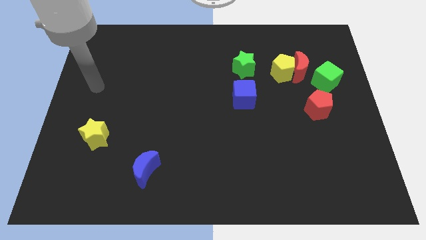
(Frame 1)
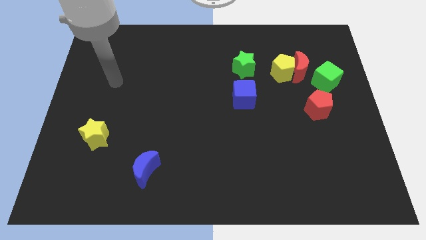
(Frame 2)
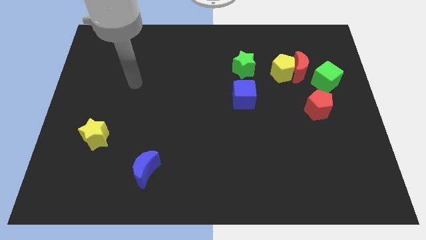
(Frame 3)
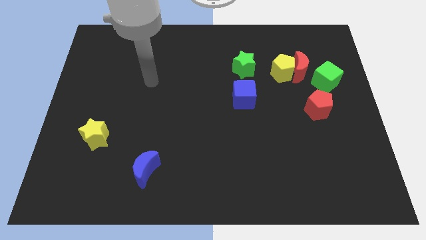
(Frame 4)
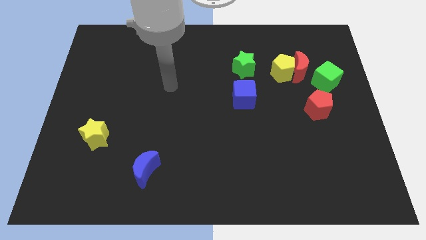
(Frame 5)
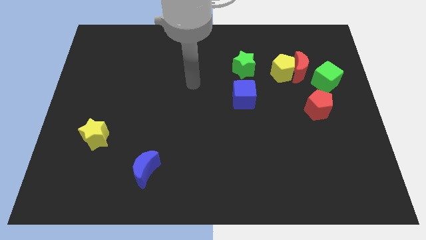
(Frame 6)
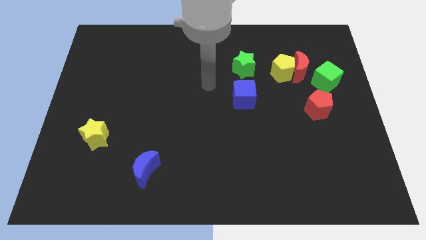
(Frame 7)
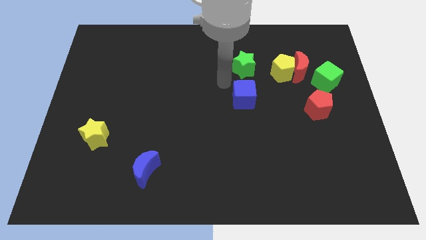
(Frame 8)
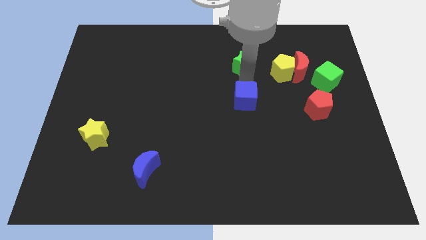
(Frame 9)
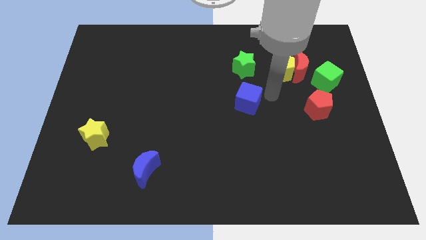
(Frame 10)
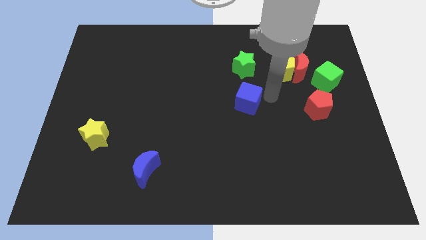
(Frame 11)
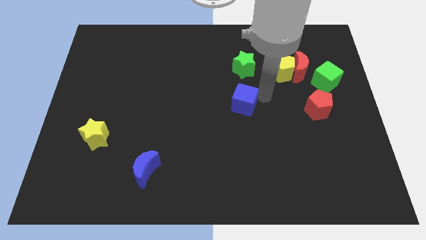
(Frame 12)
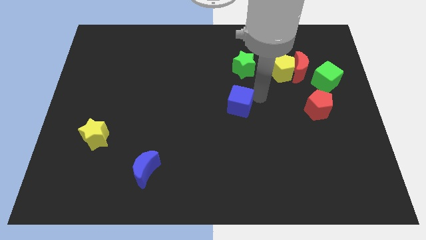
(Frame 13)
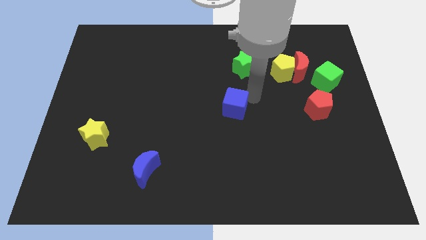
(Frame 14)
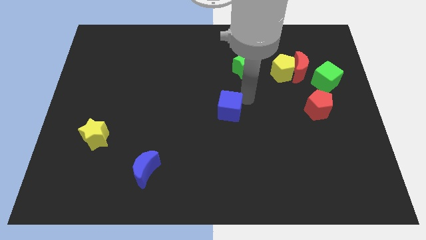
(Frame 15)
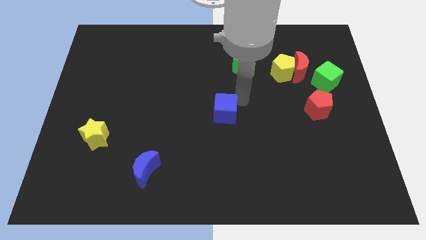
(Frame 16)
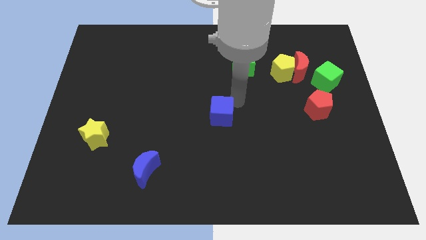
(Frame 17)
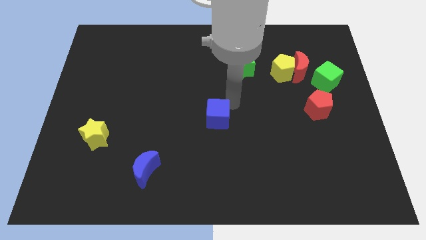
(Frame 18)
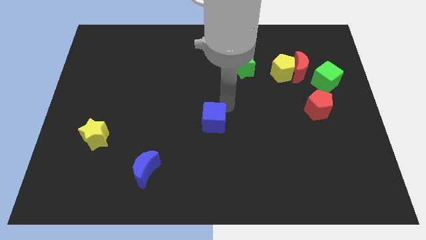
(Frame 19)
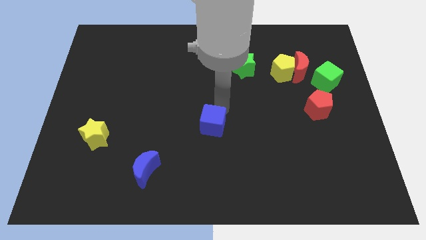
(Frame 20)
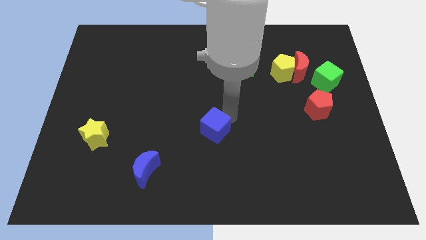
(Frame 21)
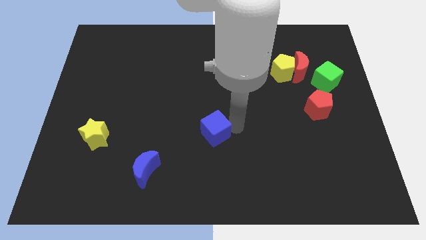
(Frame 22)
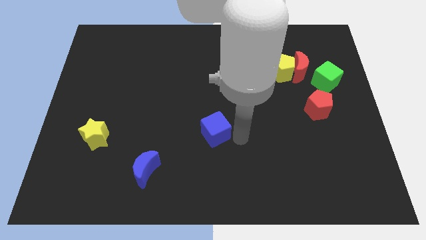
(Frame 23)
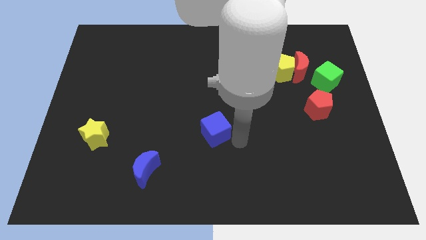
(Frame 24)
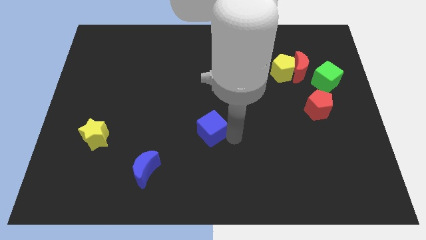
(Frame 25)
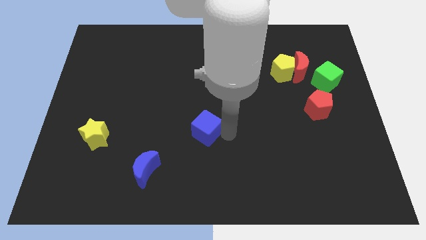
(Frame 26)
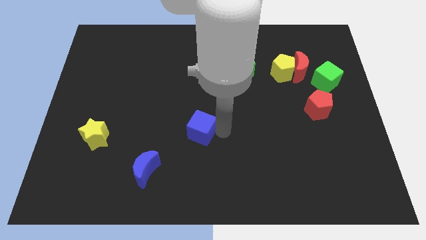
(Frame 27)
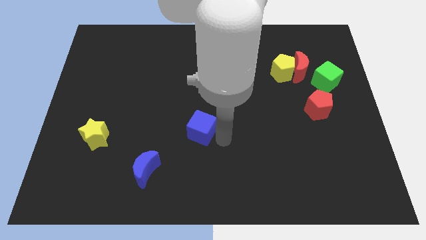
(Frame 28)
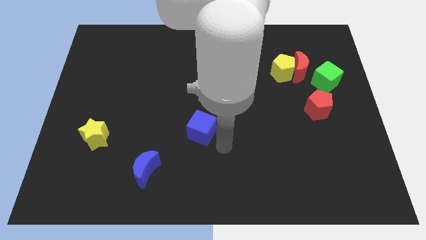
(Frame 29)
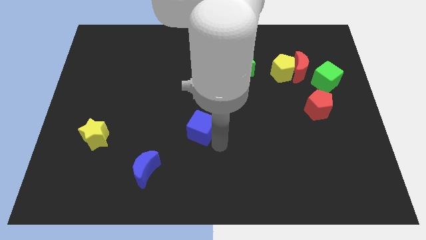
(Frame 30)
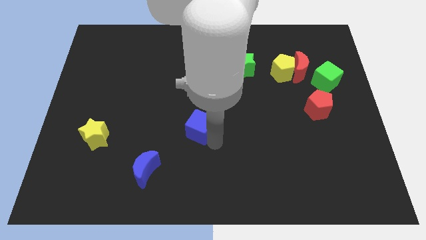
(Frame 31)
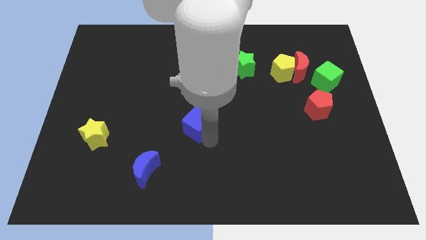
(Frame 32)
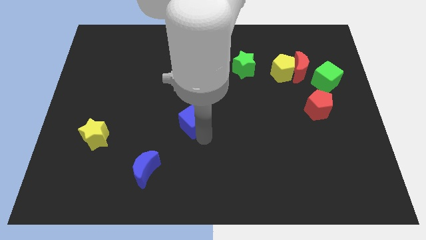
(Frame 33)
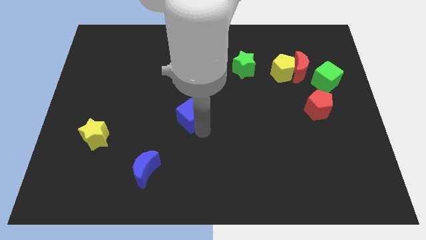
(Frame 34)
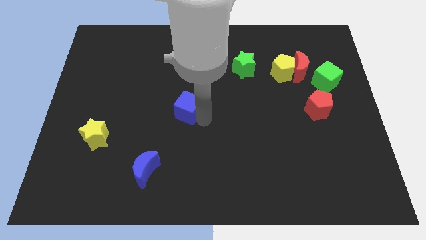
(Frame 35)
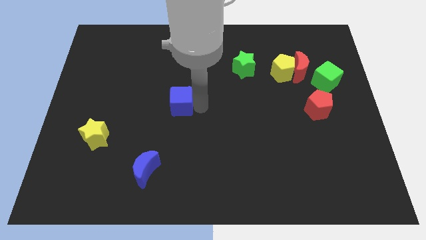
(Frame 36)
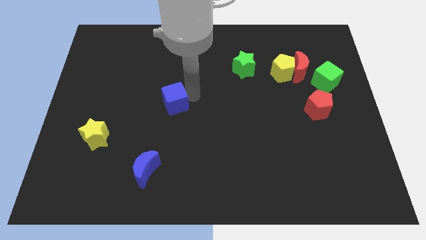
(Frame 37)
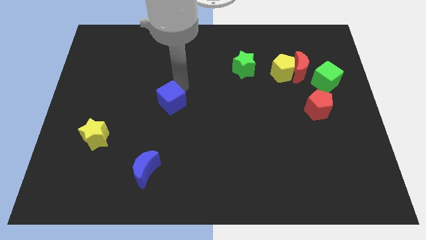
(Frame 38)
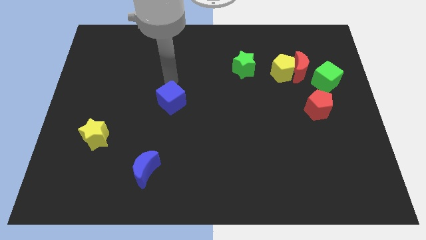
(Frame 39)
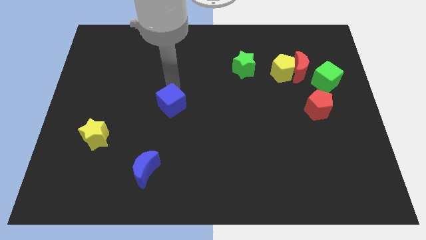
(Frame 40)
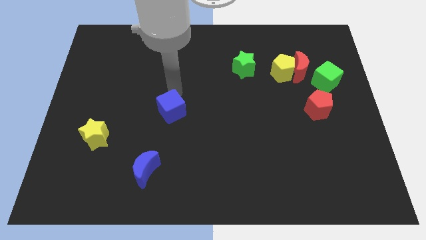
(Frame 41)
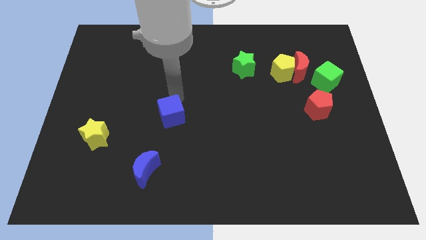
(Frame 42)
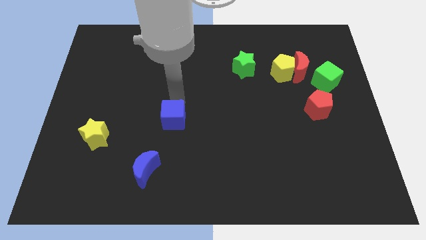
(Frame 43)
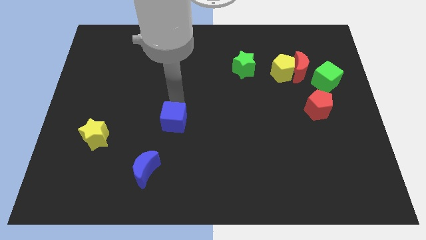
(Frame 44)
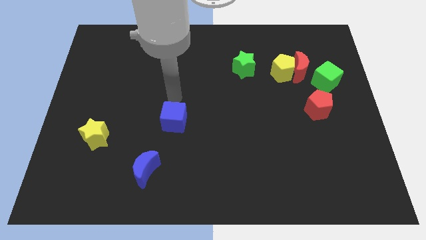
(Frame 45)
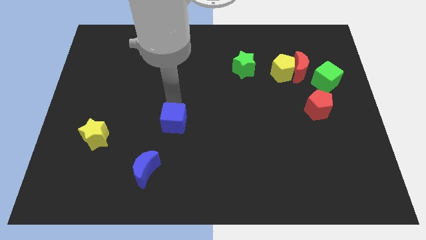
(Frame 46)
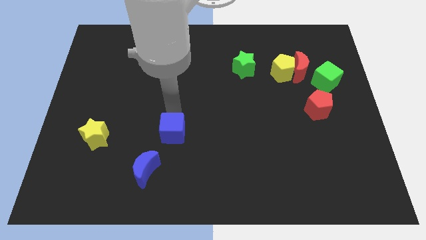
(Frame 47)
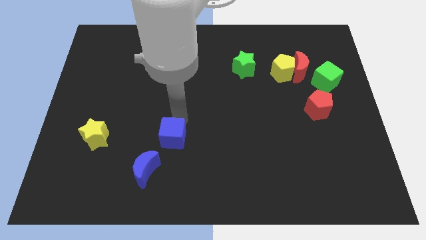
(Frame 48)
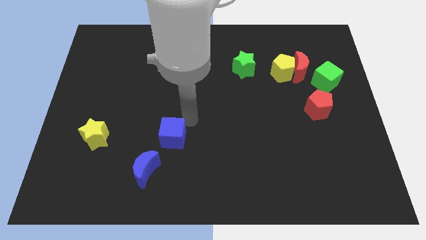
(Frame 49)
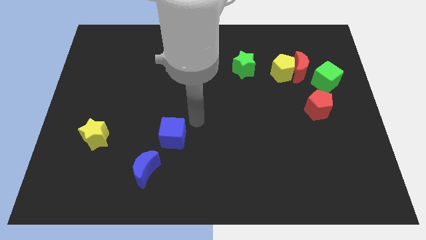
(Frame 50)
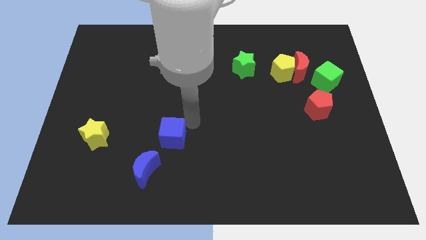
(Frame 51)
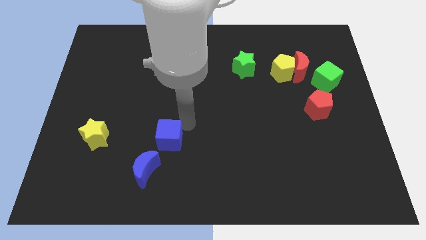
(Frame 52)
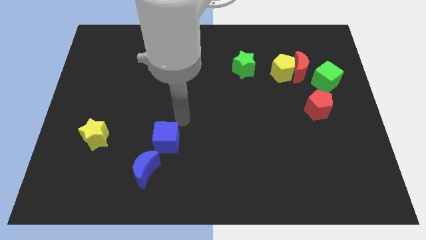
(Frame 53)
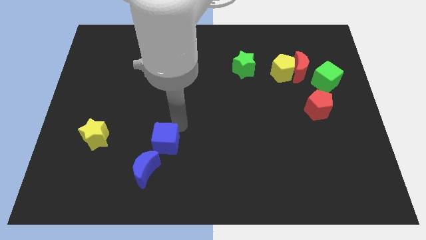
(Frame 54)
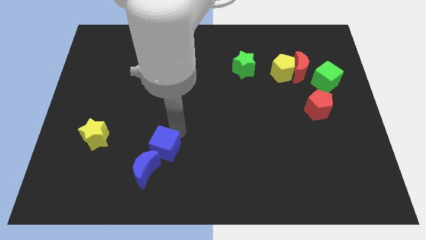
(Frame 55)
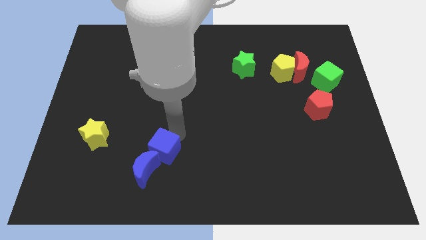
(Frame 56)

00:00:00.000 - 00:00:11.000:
push the blue cube next to the blue moon

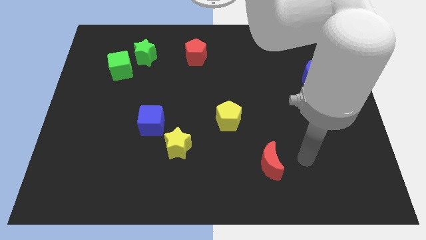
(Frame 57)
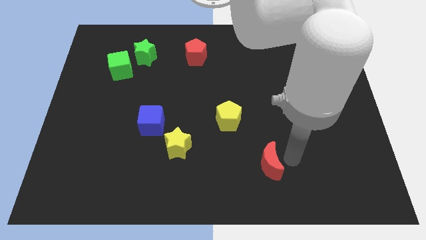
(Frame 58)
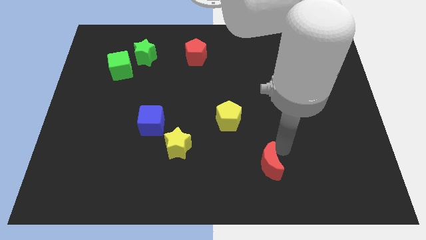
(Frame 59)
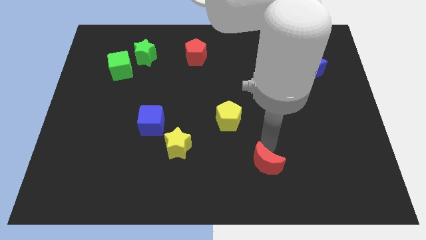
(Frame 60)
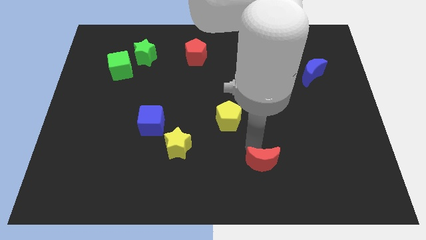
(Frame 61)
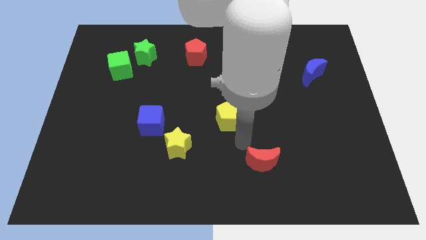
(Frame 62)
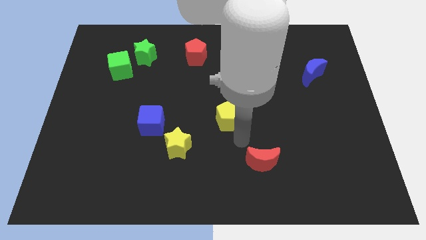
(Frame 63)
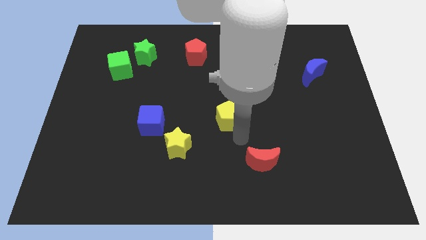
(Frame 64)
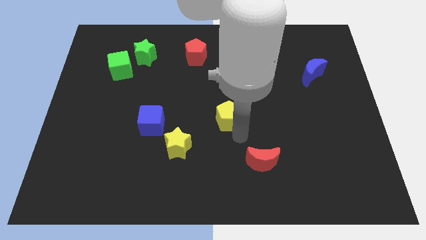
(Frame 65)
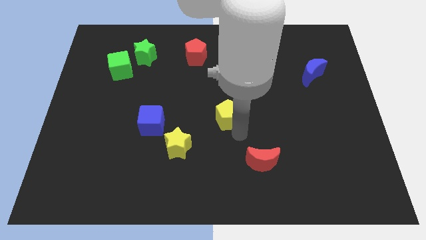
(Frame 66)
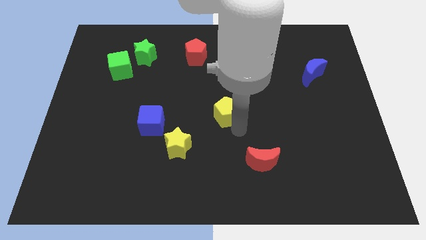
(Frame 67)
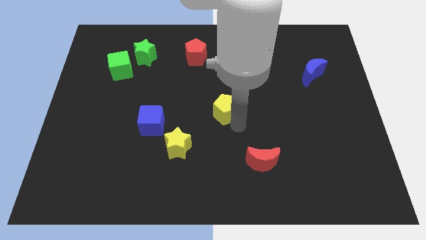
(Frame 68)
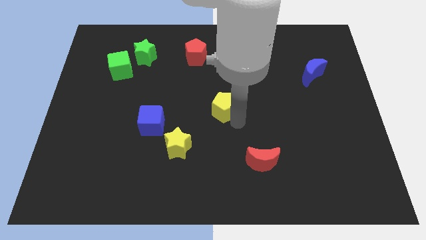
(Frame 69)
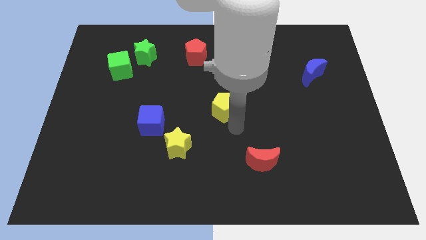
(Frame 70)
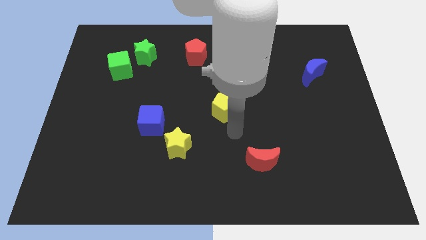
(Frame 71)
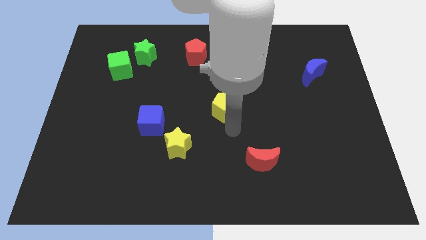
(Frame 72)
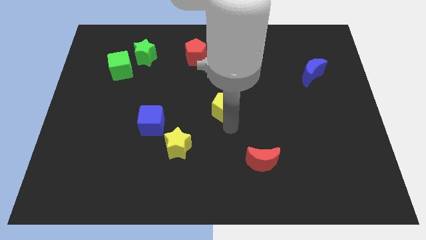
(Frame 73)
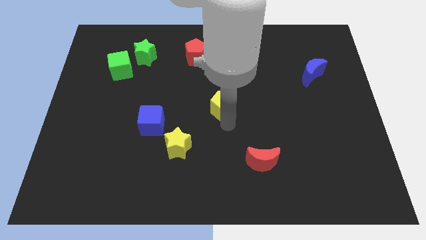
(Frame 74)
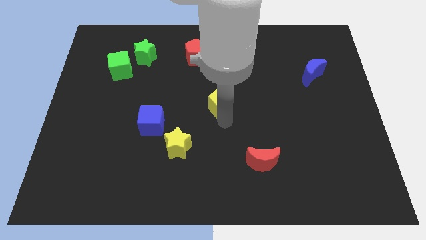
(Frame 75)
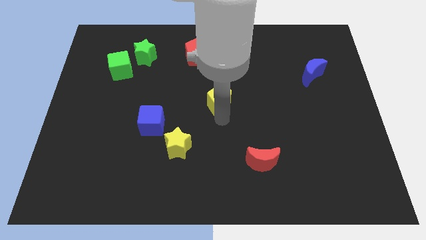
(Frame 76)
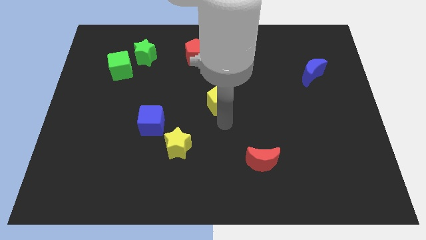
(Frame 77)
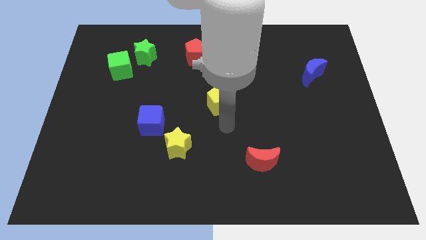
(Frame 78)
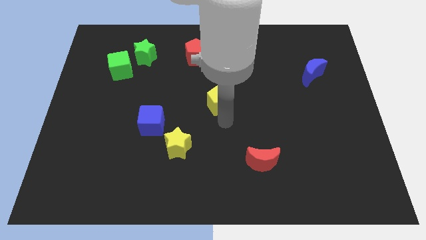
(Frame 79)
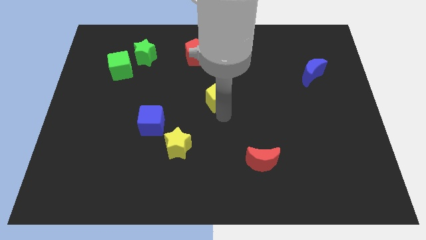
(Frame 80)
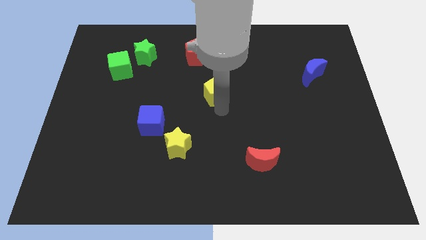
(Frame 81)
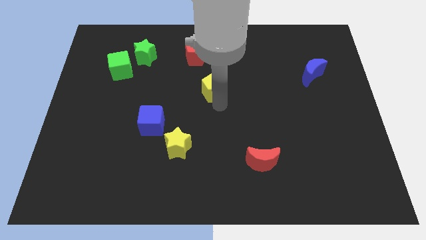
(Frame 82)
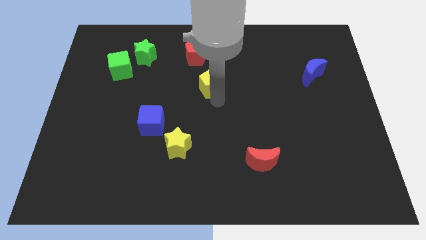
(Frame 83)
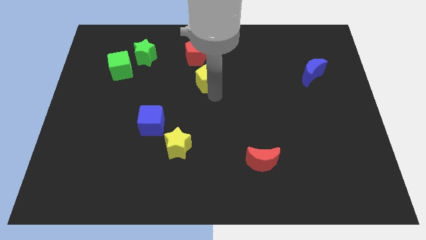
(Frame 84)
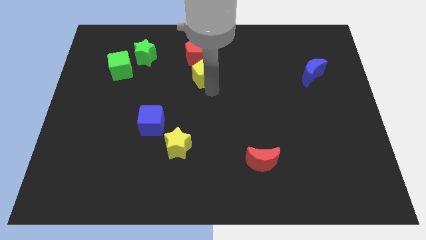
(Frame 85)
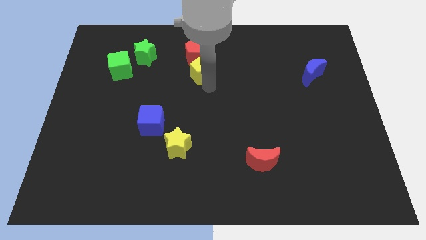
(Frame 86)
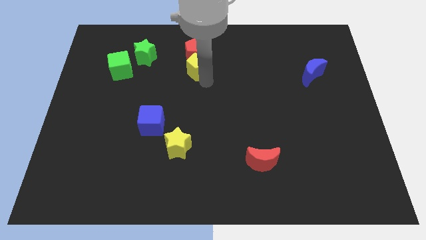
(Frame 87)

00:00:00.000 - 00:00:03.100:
move the yellow pentagon towards the red pentagon
